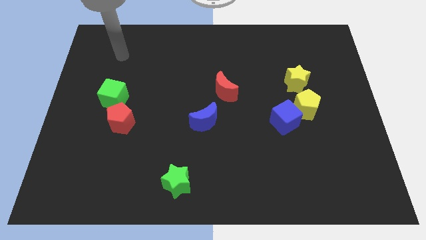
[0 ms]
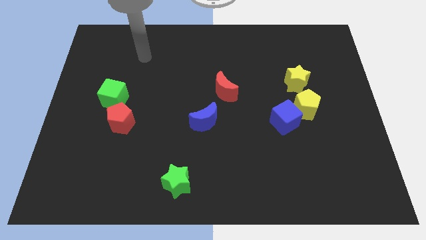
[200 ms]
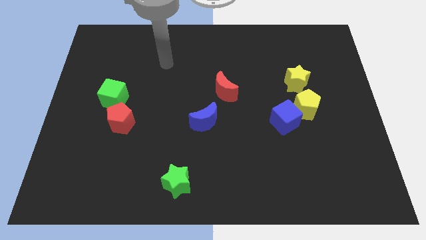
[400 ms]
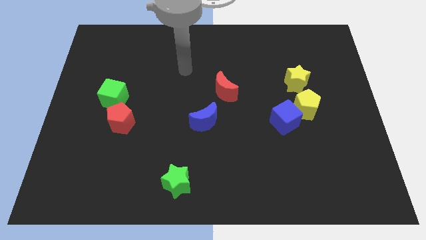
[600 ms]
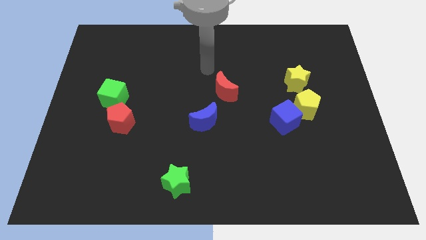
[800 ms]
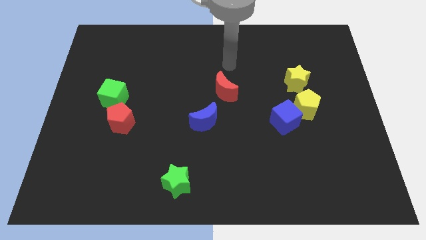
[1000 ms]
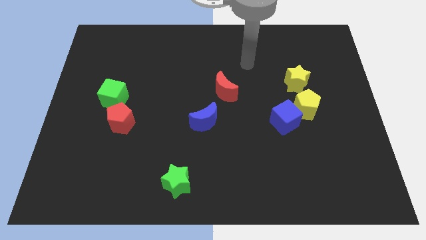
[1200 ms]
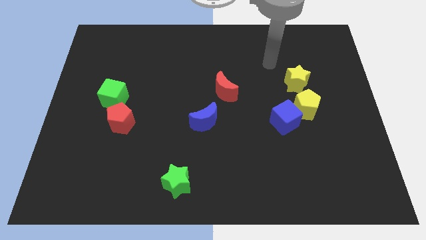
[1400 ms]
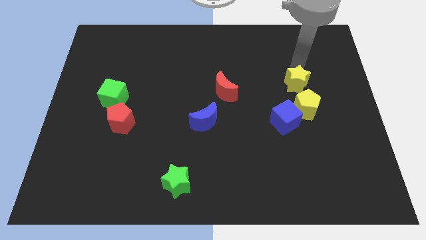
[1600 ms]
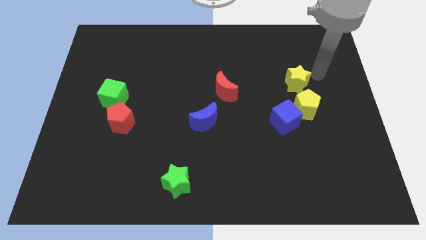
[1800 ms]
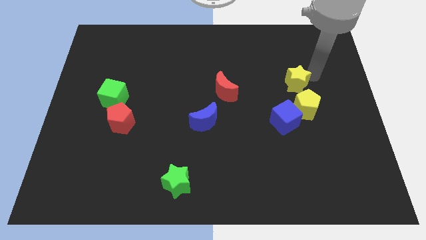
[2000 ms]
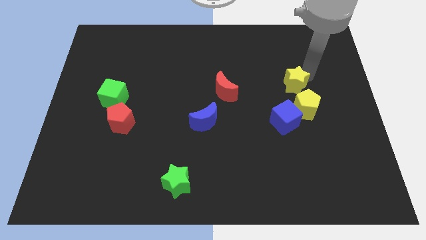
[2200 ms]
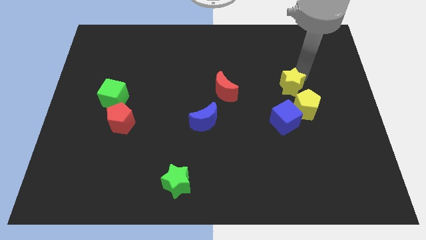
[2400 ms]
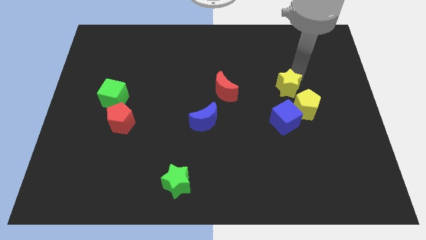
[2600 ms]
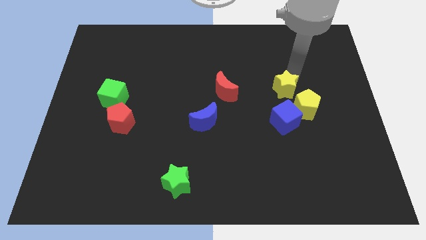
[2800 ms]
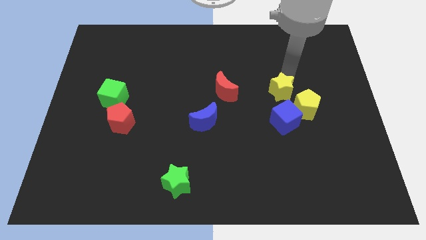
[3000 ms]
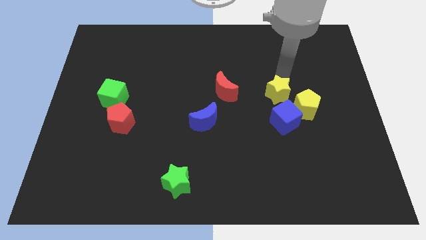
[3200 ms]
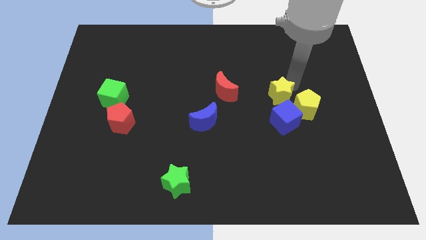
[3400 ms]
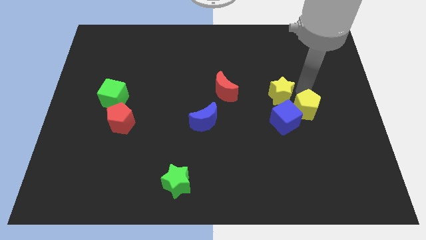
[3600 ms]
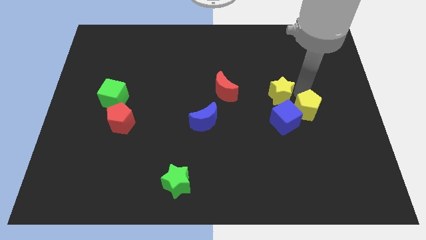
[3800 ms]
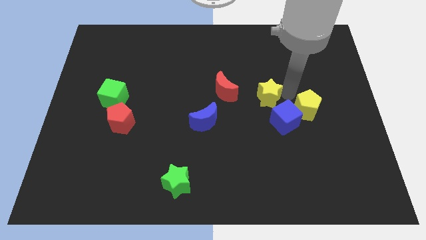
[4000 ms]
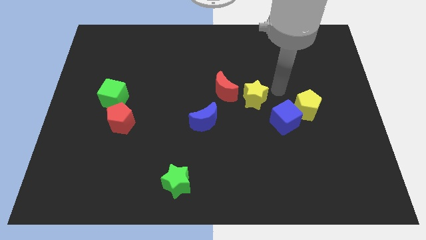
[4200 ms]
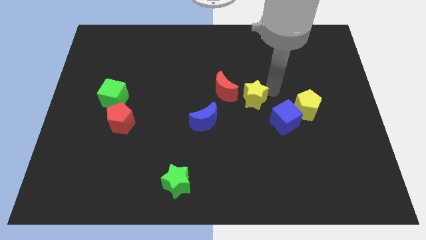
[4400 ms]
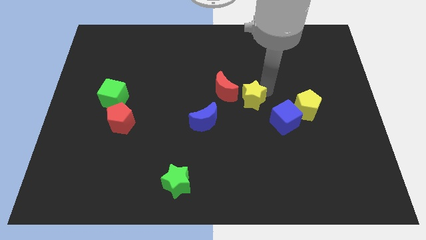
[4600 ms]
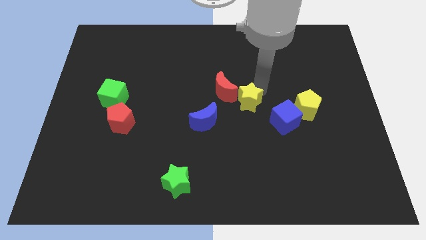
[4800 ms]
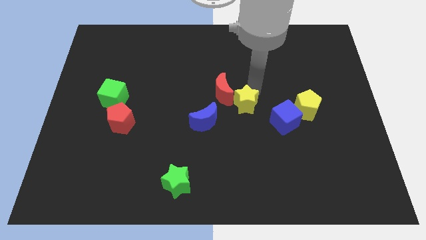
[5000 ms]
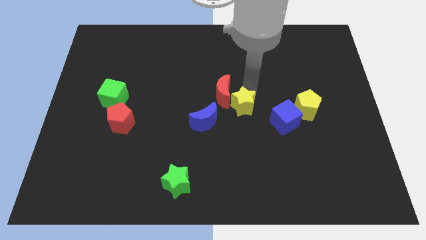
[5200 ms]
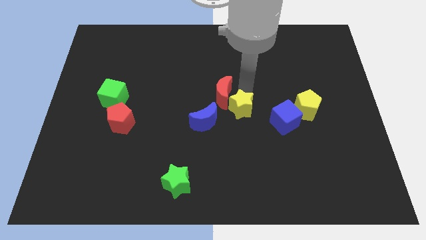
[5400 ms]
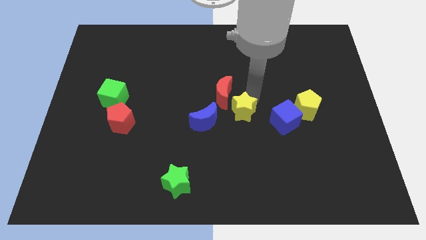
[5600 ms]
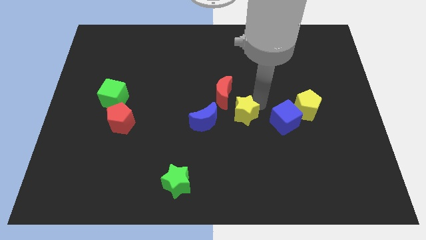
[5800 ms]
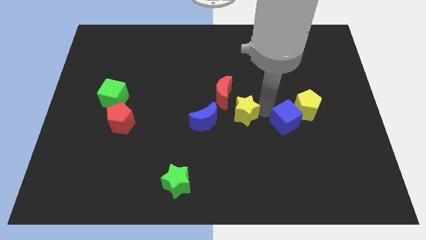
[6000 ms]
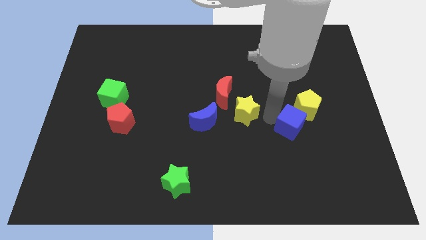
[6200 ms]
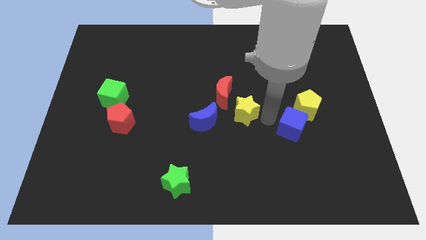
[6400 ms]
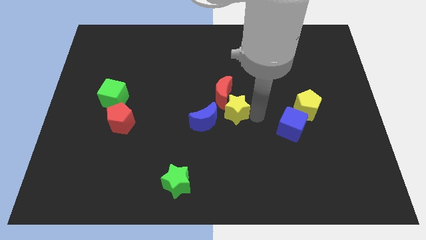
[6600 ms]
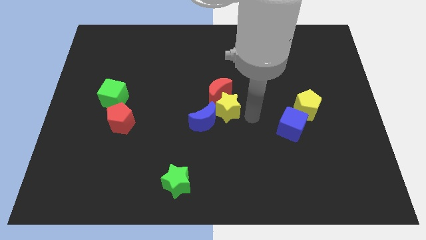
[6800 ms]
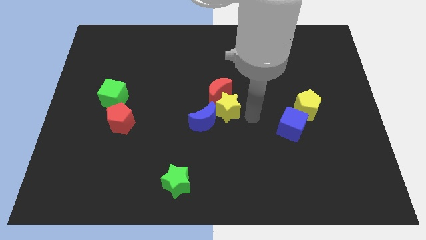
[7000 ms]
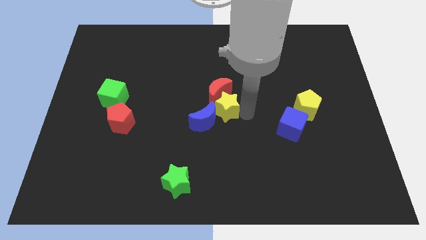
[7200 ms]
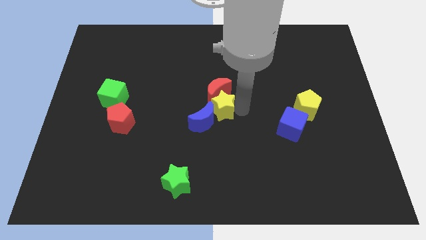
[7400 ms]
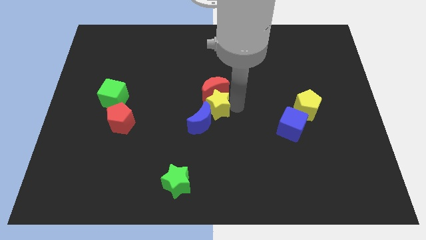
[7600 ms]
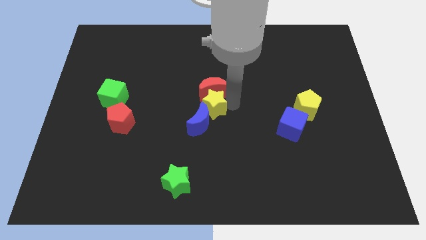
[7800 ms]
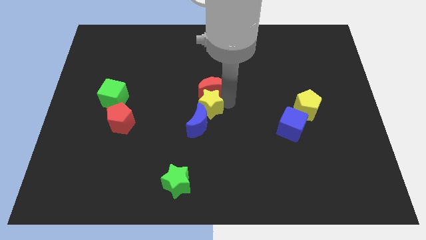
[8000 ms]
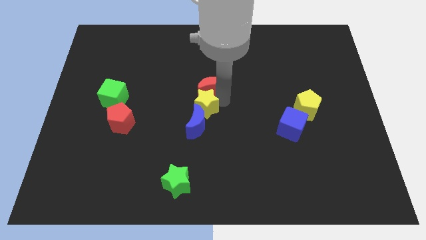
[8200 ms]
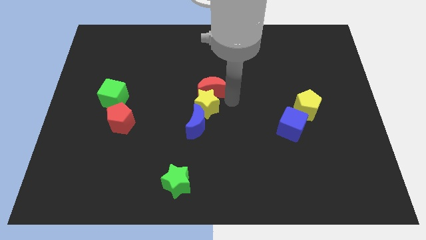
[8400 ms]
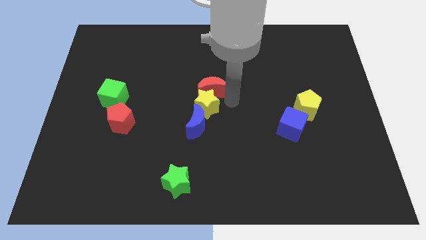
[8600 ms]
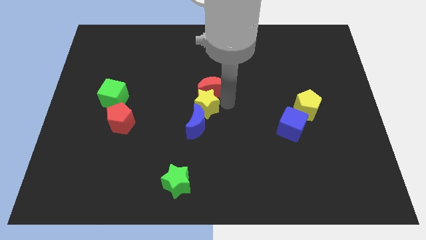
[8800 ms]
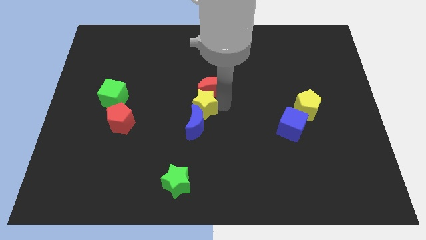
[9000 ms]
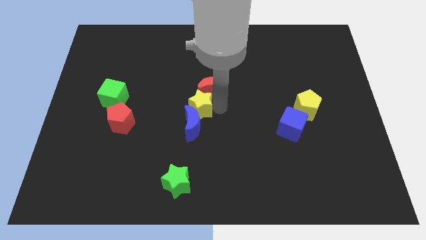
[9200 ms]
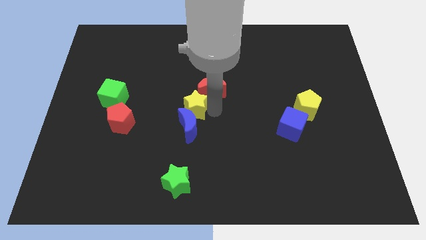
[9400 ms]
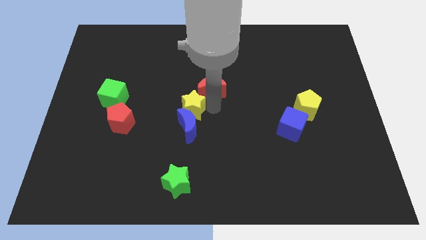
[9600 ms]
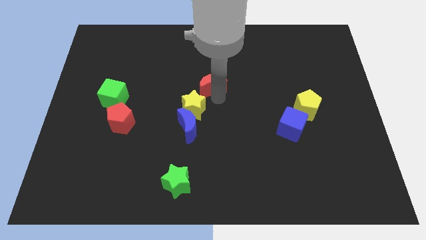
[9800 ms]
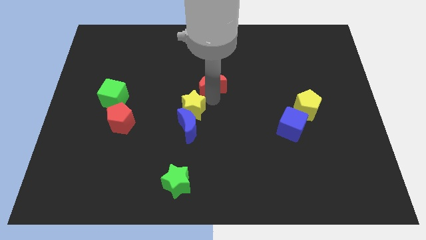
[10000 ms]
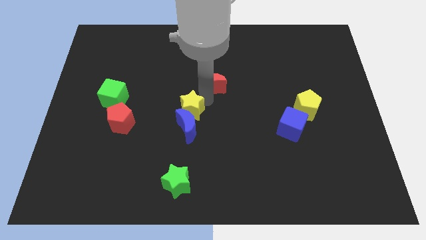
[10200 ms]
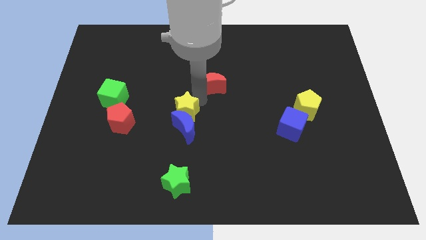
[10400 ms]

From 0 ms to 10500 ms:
push the yellow star to the right side of the red pentagon

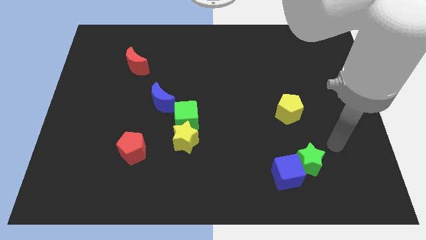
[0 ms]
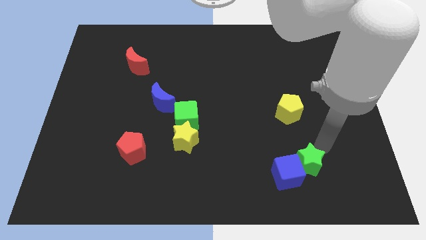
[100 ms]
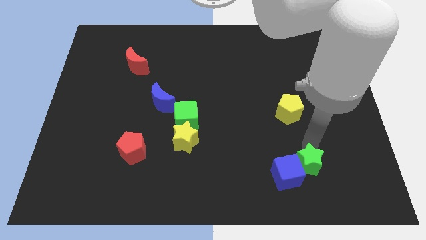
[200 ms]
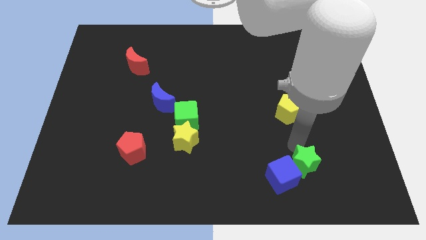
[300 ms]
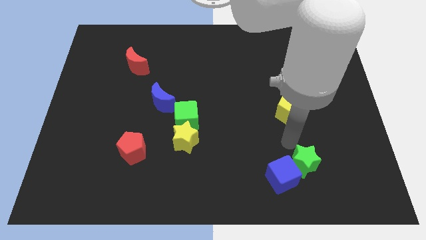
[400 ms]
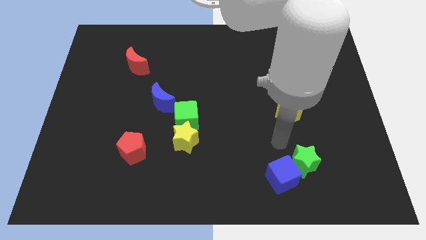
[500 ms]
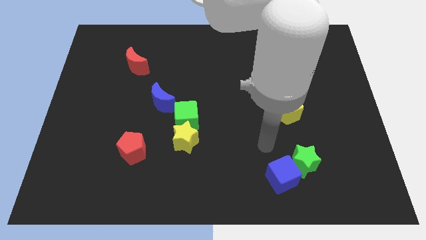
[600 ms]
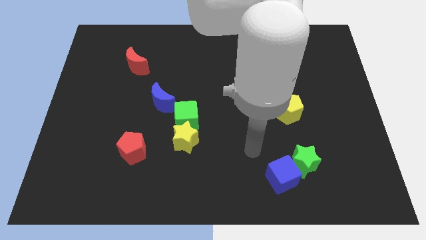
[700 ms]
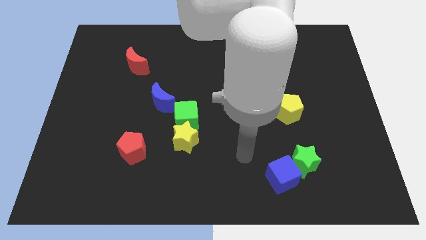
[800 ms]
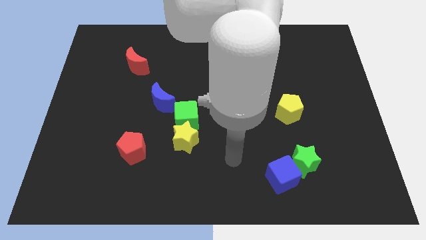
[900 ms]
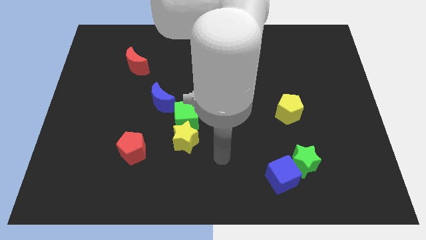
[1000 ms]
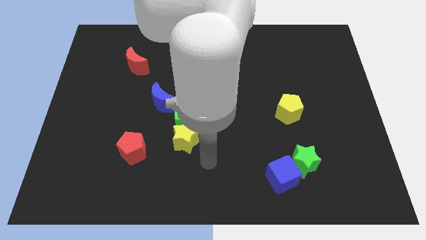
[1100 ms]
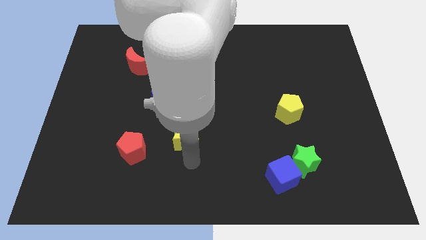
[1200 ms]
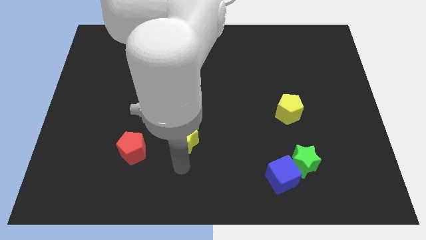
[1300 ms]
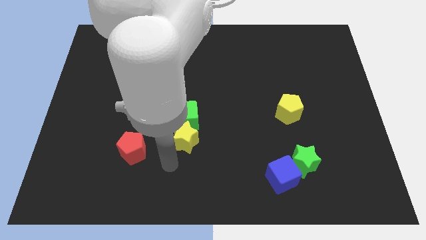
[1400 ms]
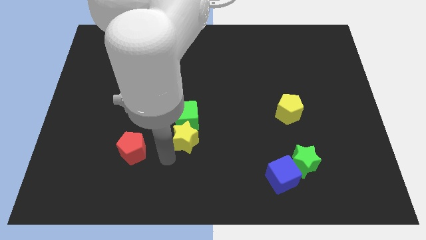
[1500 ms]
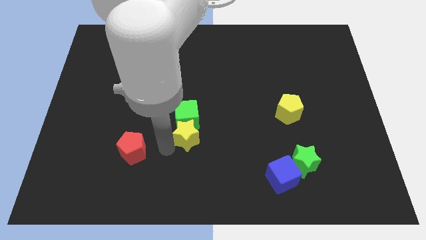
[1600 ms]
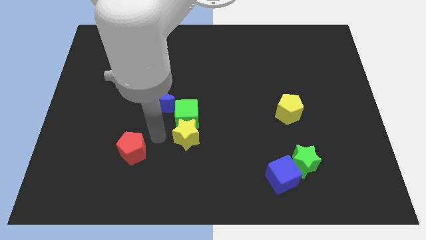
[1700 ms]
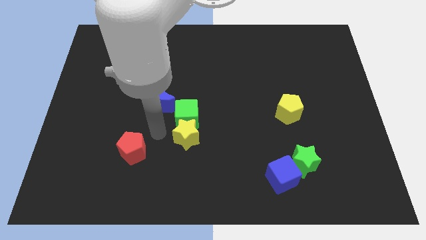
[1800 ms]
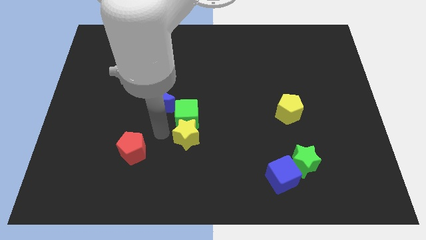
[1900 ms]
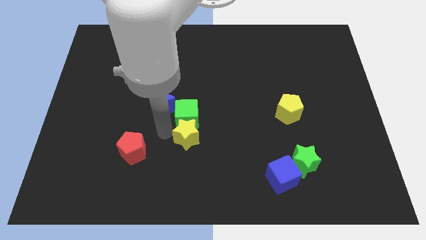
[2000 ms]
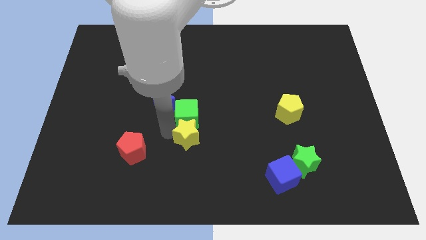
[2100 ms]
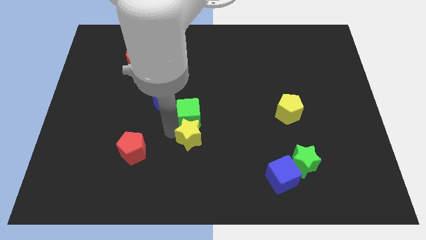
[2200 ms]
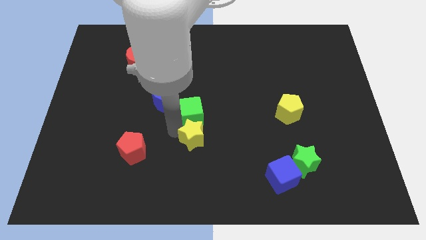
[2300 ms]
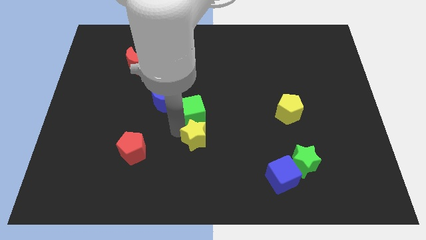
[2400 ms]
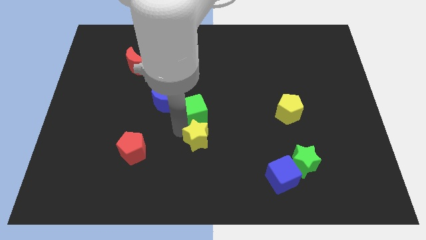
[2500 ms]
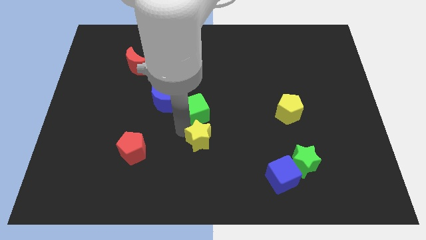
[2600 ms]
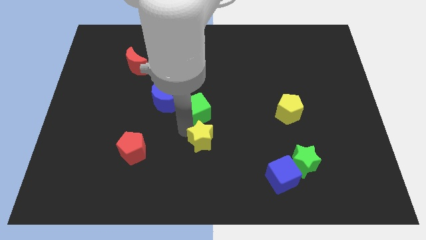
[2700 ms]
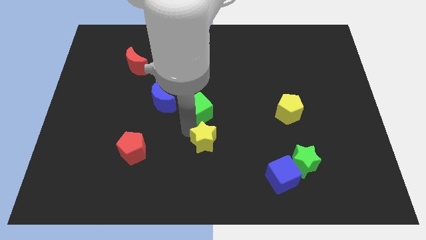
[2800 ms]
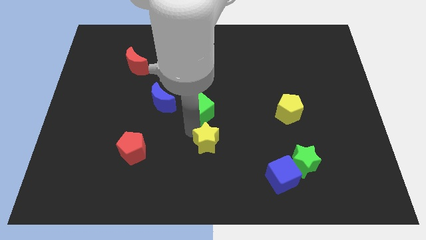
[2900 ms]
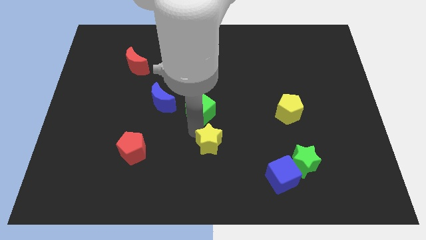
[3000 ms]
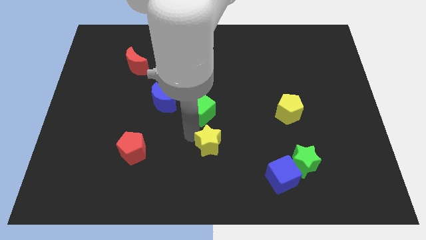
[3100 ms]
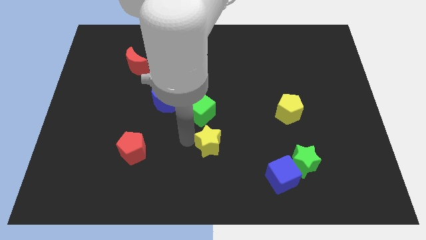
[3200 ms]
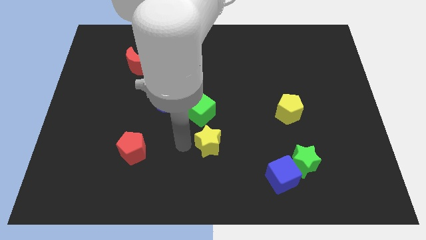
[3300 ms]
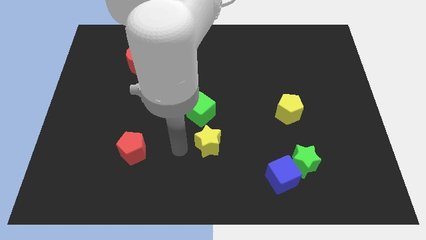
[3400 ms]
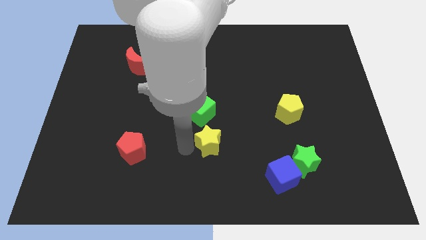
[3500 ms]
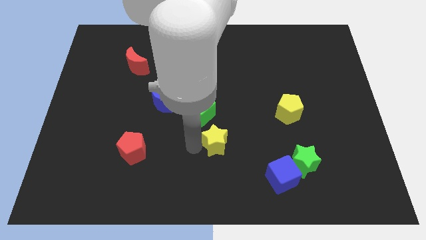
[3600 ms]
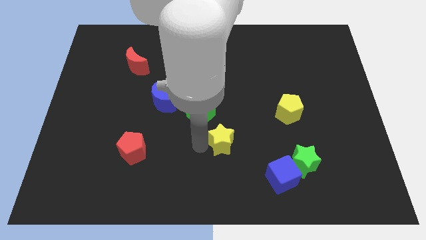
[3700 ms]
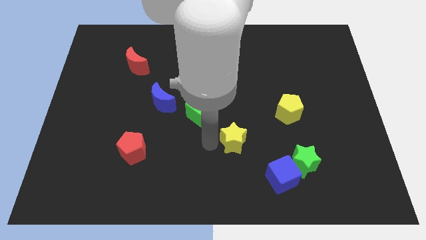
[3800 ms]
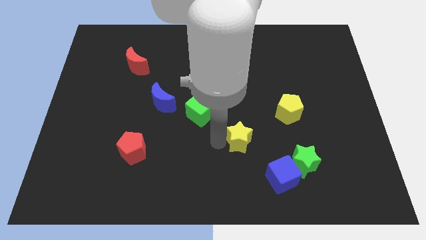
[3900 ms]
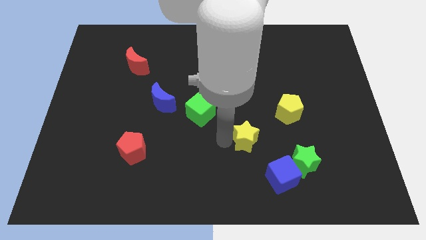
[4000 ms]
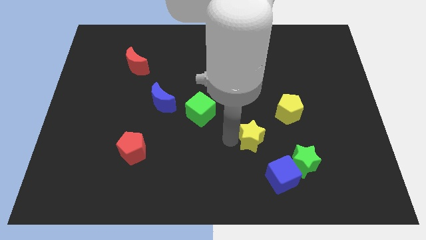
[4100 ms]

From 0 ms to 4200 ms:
move the yellow star to the top left side of the green star
